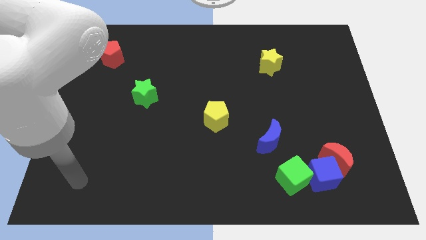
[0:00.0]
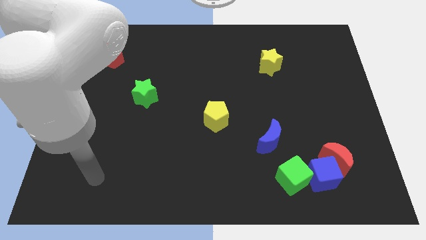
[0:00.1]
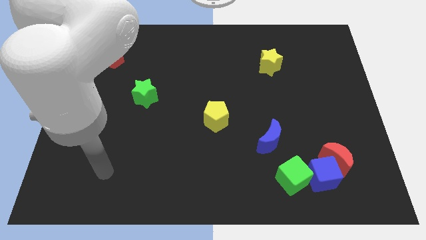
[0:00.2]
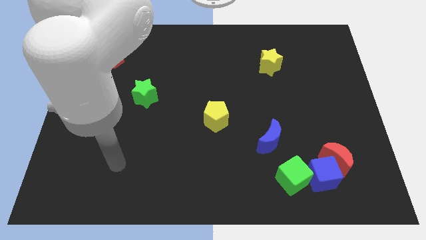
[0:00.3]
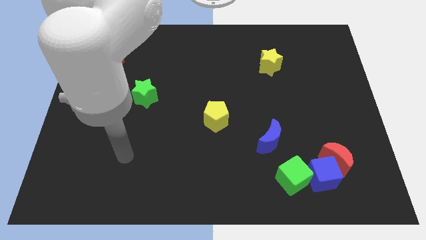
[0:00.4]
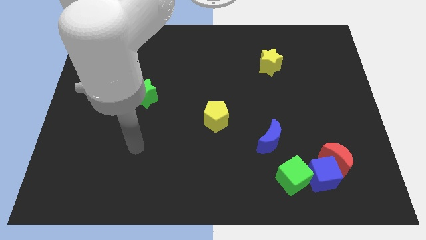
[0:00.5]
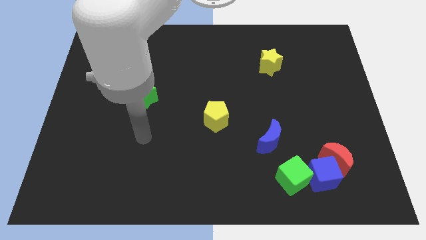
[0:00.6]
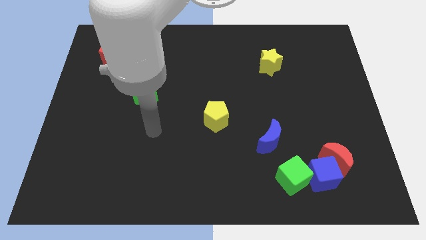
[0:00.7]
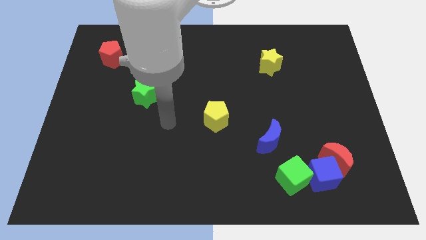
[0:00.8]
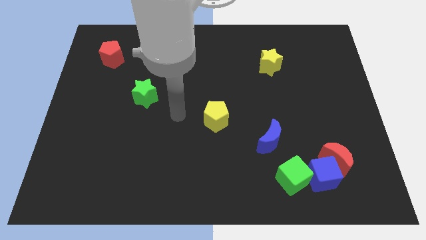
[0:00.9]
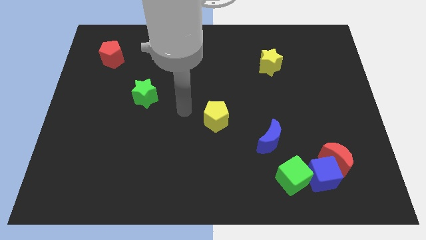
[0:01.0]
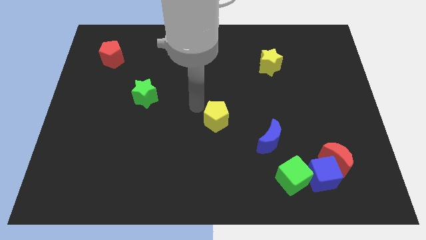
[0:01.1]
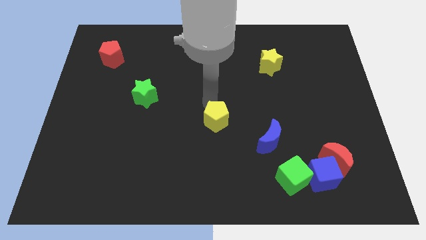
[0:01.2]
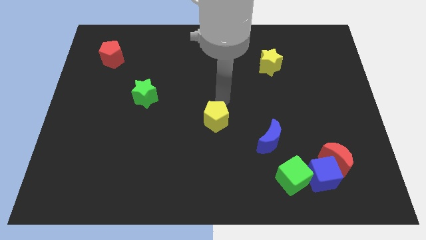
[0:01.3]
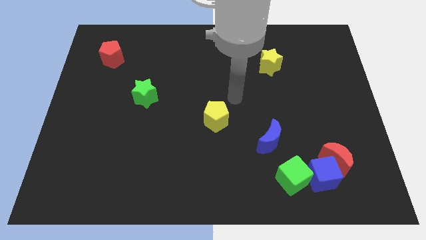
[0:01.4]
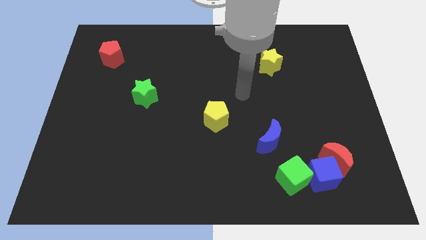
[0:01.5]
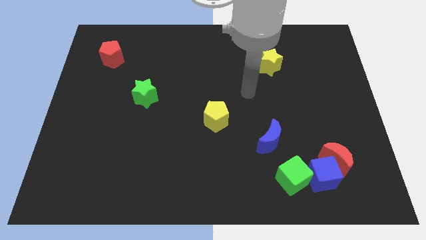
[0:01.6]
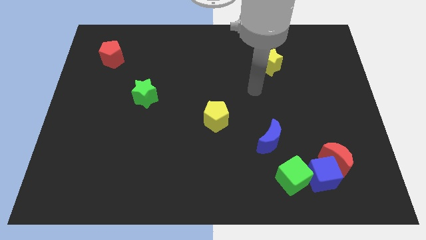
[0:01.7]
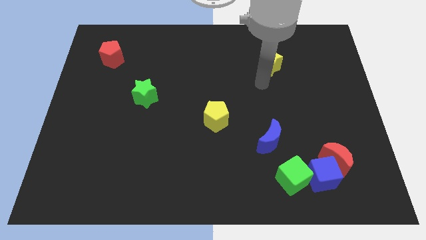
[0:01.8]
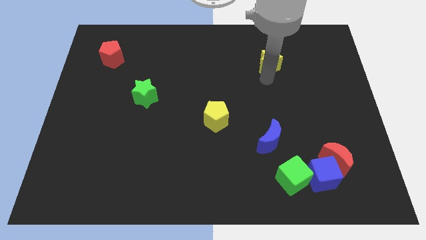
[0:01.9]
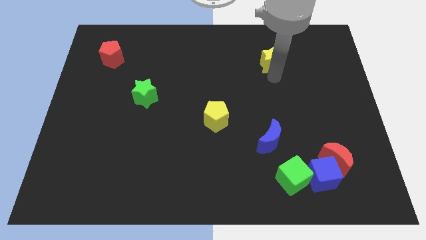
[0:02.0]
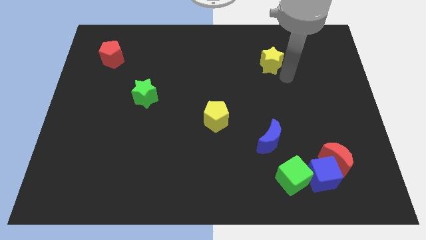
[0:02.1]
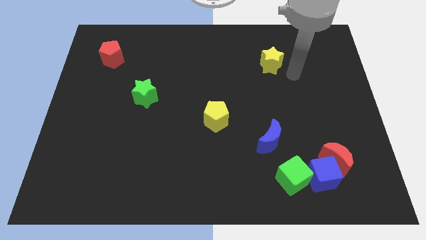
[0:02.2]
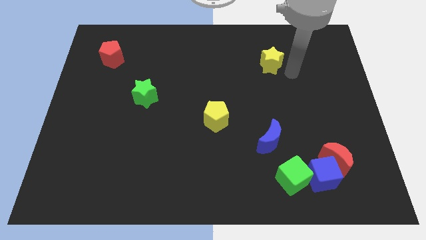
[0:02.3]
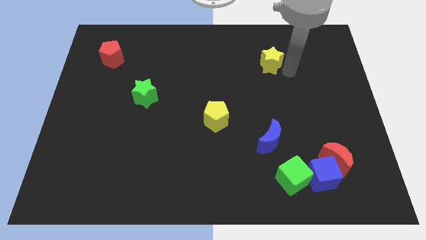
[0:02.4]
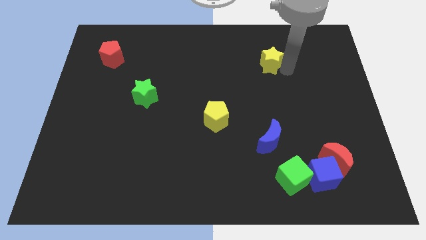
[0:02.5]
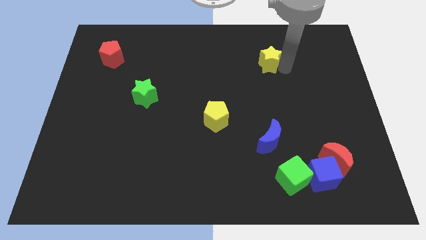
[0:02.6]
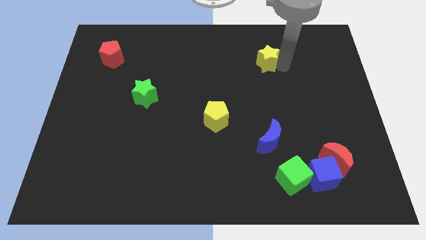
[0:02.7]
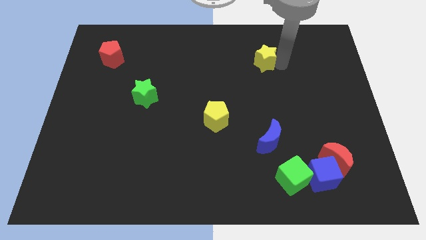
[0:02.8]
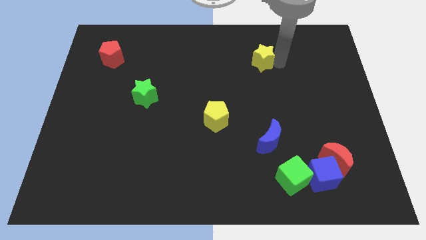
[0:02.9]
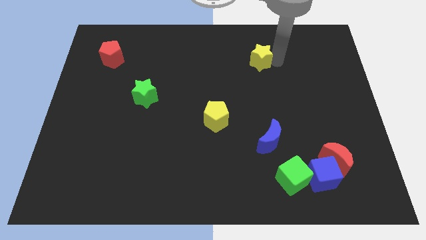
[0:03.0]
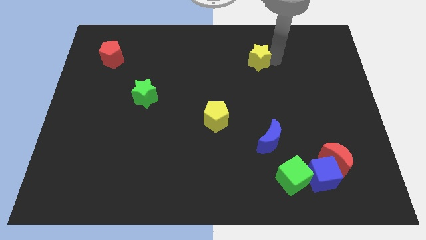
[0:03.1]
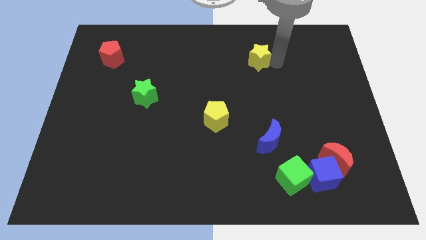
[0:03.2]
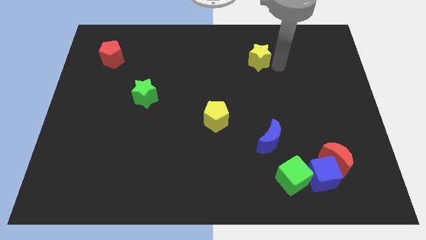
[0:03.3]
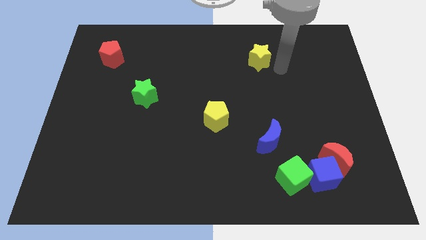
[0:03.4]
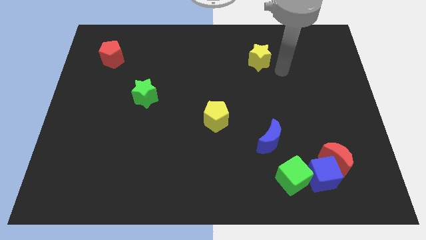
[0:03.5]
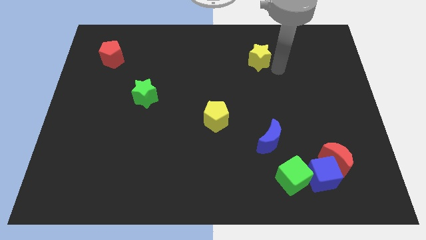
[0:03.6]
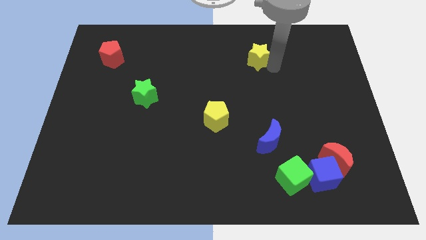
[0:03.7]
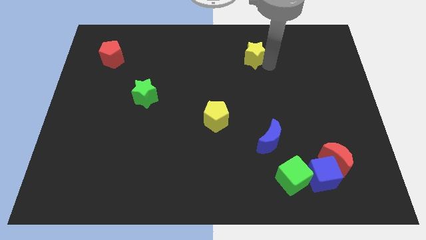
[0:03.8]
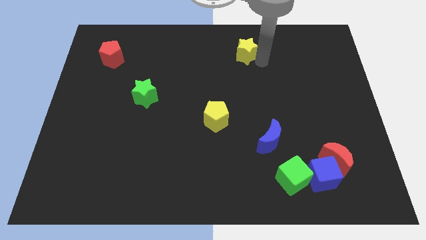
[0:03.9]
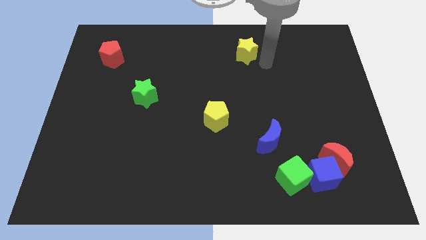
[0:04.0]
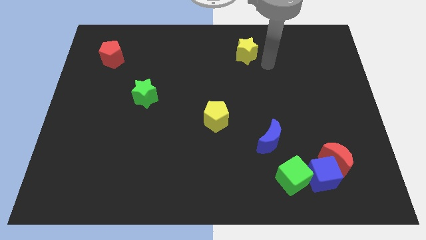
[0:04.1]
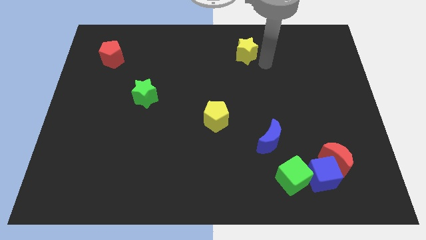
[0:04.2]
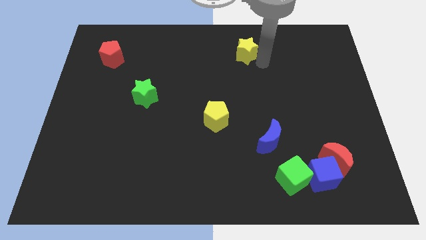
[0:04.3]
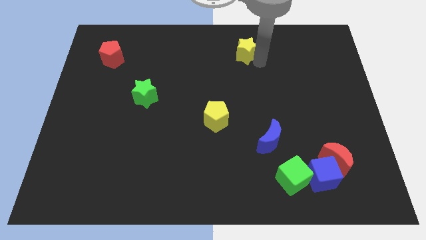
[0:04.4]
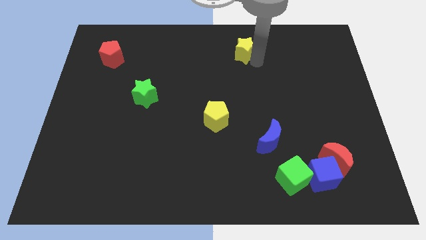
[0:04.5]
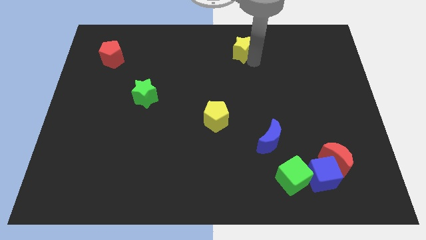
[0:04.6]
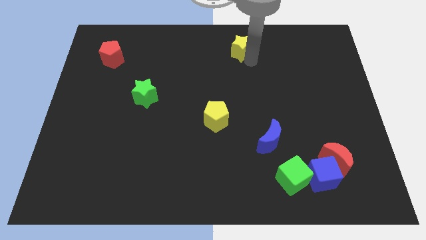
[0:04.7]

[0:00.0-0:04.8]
slide the yellow star to the top side

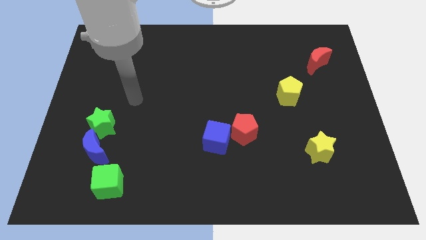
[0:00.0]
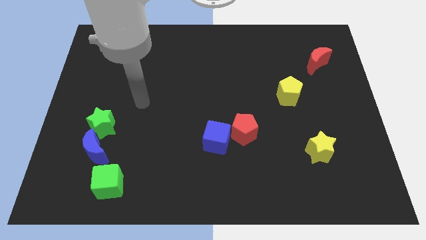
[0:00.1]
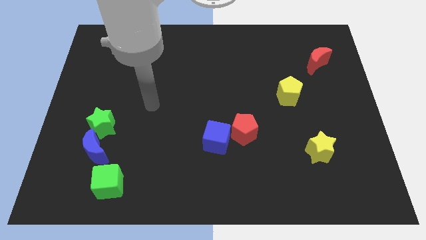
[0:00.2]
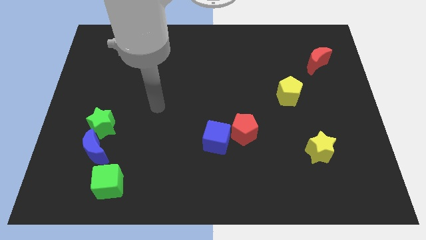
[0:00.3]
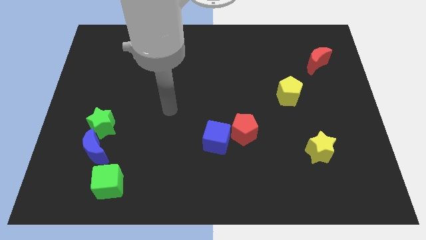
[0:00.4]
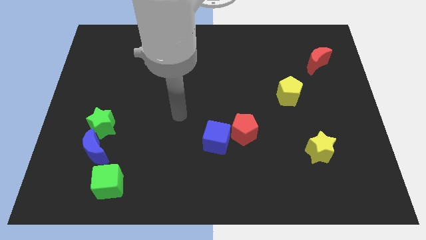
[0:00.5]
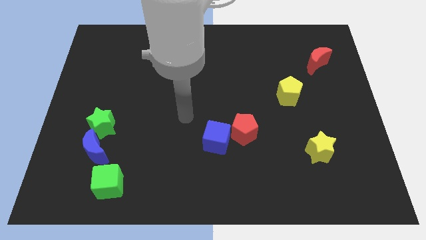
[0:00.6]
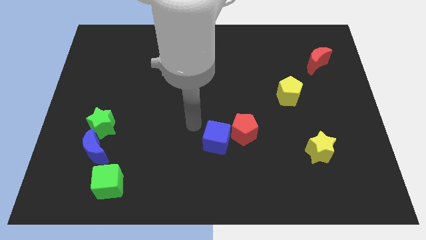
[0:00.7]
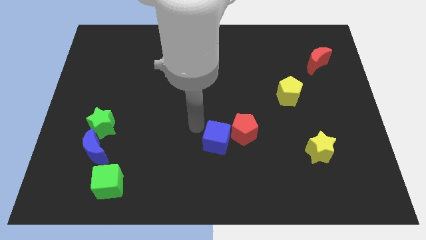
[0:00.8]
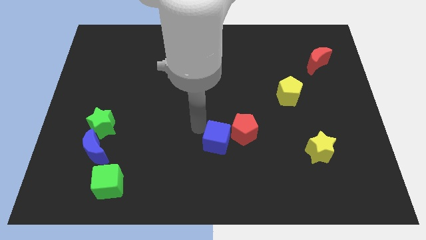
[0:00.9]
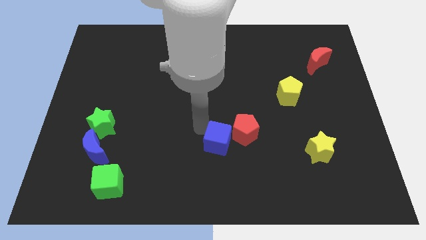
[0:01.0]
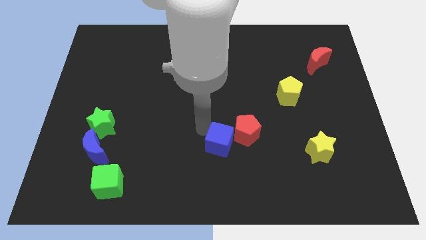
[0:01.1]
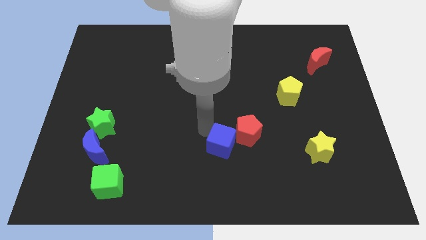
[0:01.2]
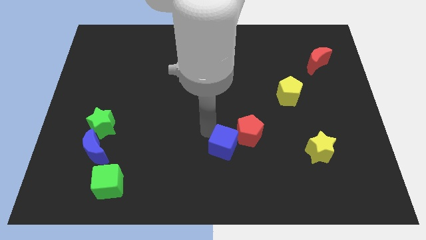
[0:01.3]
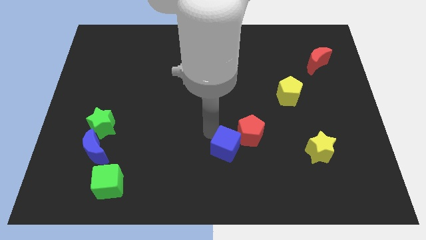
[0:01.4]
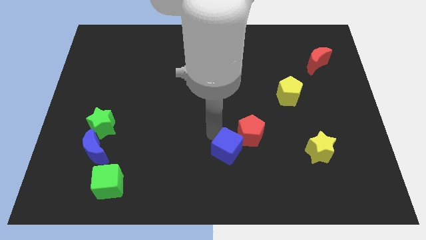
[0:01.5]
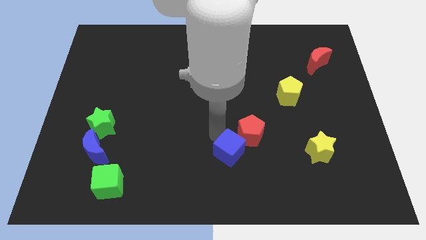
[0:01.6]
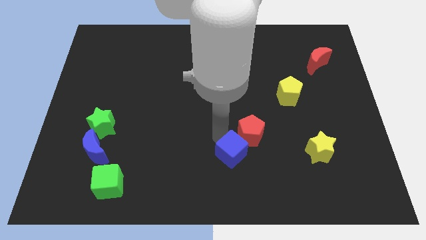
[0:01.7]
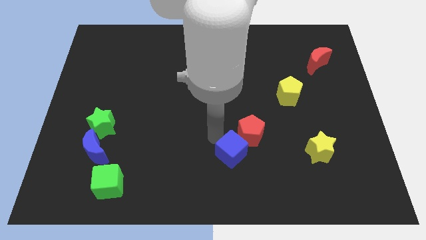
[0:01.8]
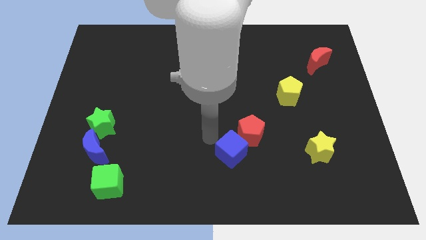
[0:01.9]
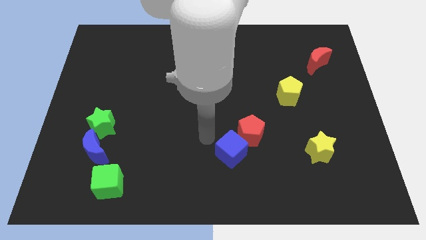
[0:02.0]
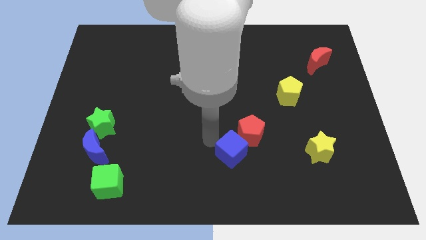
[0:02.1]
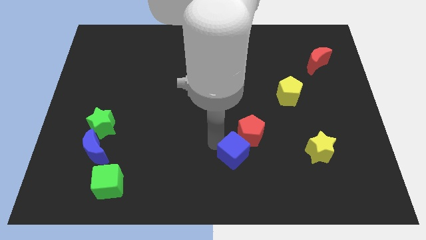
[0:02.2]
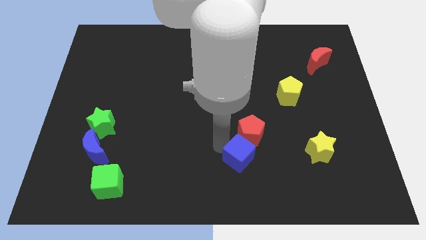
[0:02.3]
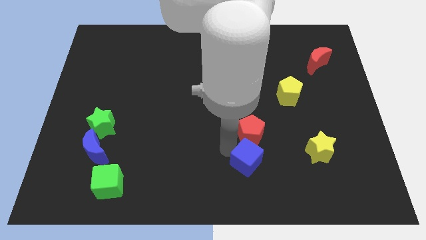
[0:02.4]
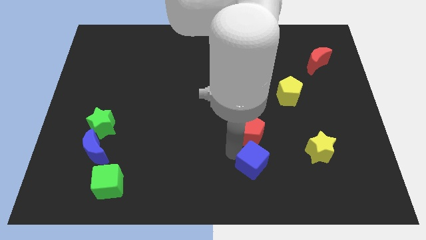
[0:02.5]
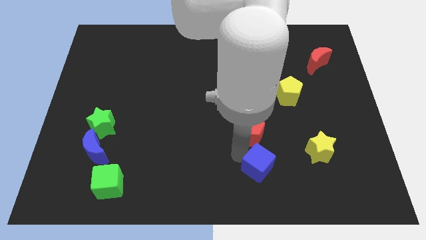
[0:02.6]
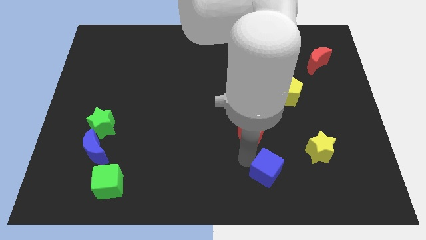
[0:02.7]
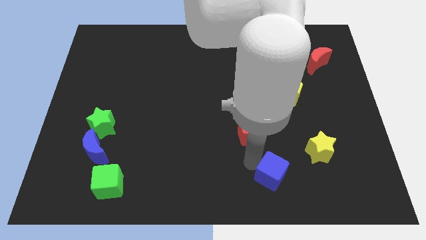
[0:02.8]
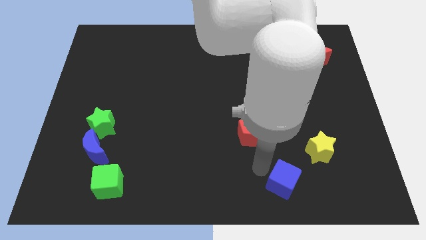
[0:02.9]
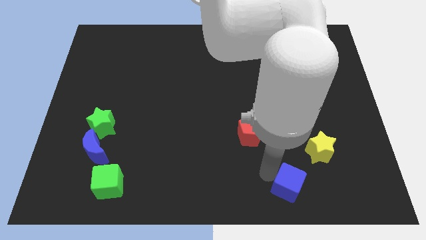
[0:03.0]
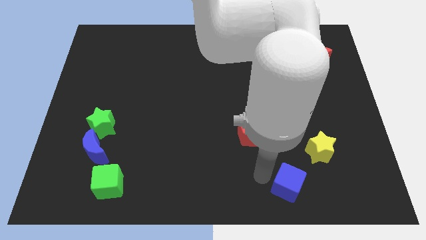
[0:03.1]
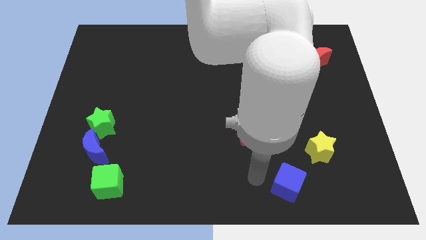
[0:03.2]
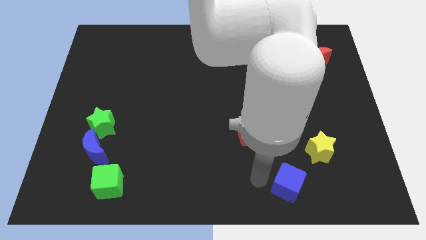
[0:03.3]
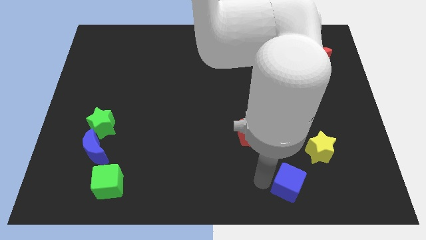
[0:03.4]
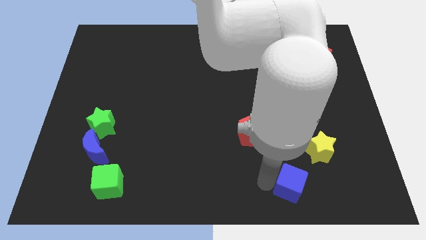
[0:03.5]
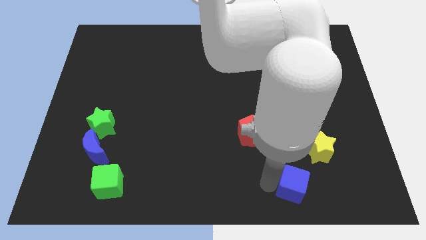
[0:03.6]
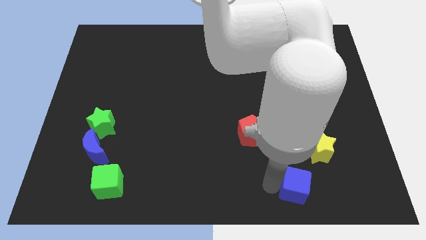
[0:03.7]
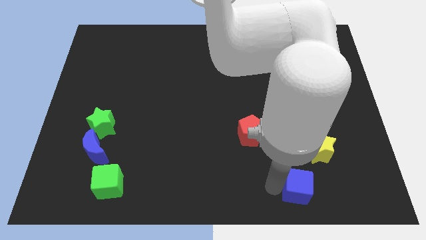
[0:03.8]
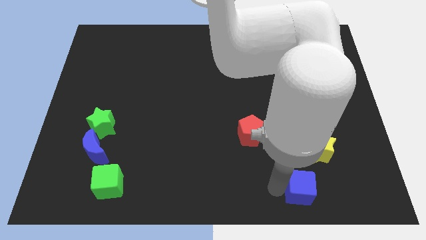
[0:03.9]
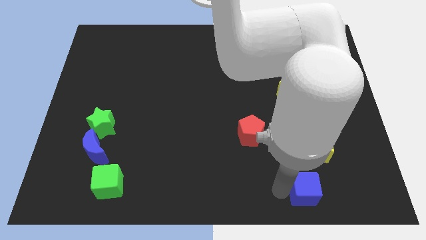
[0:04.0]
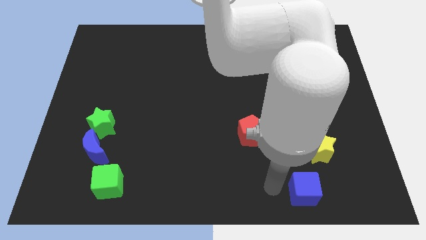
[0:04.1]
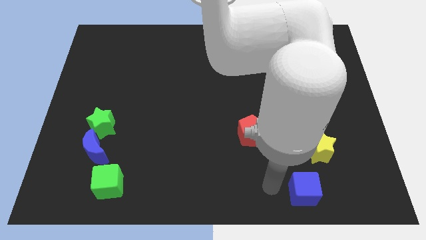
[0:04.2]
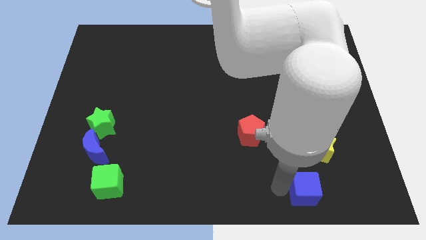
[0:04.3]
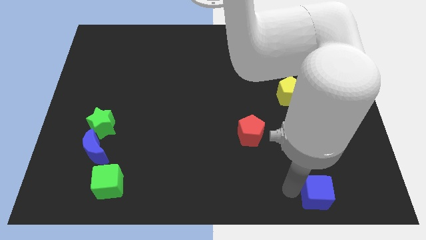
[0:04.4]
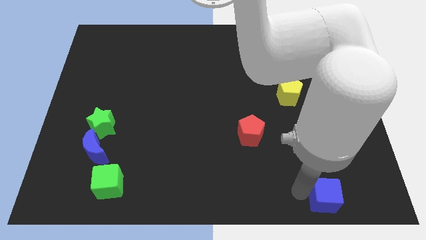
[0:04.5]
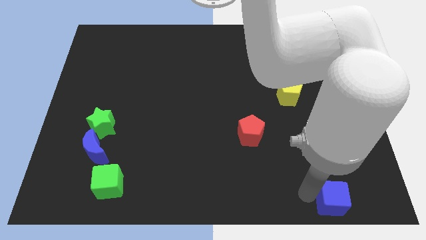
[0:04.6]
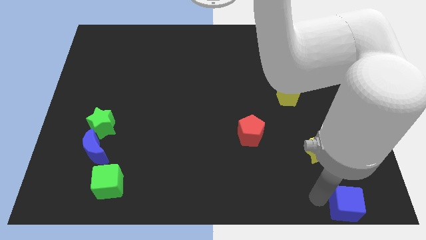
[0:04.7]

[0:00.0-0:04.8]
move the blue cube to the lower right corner
